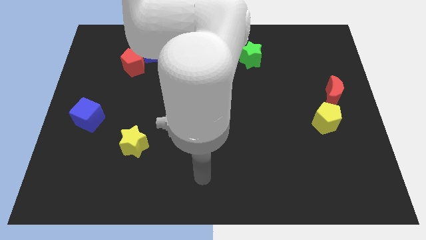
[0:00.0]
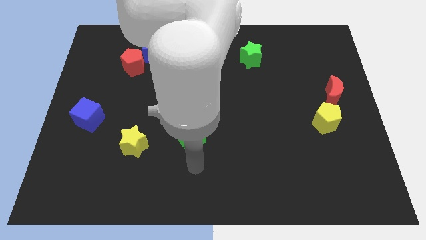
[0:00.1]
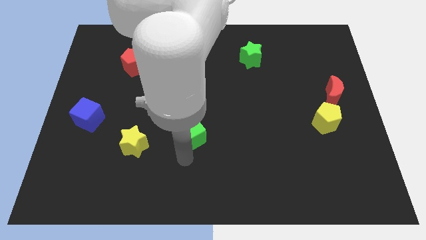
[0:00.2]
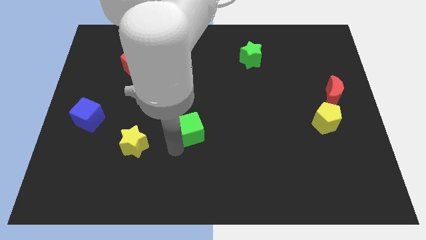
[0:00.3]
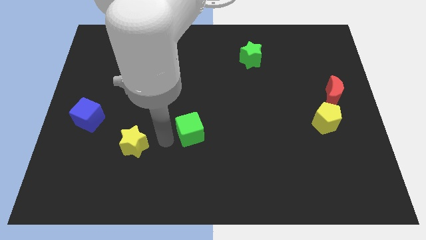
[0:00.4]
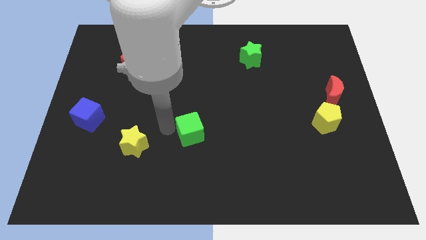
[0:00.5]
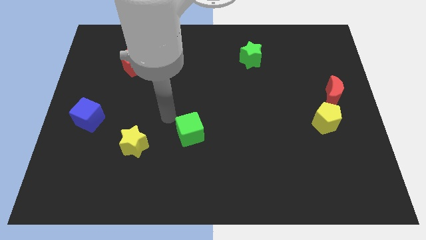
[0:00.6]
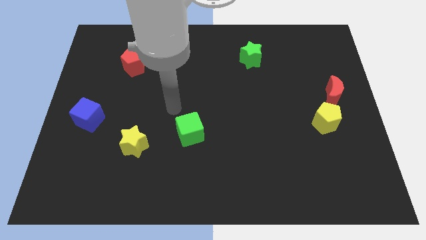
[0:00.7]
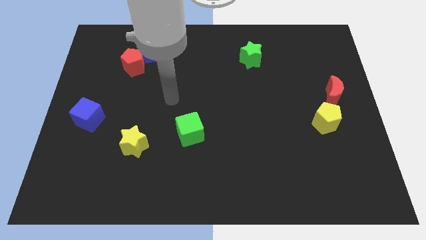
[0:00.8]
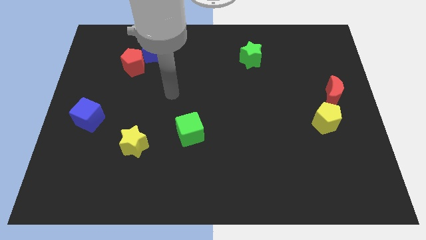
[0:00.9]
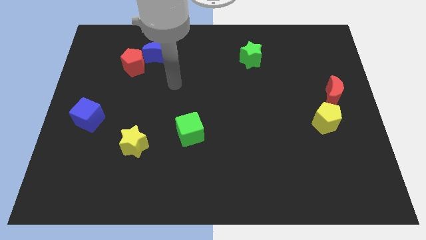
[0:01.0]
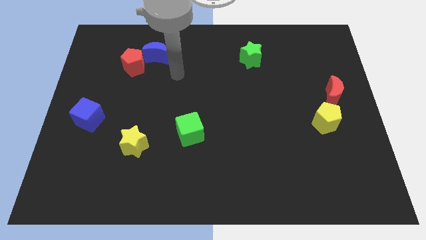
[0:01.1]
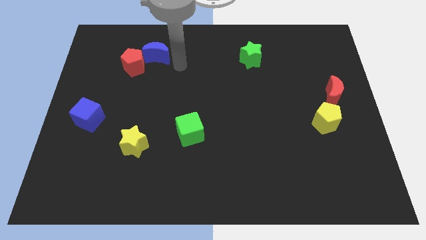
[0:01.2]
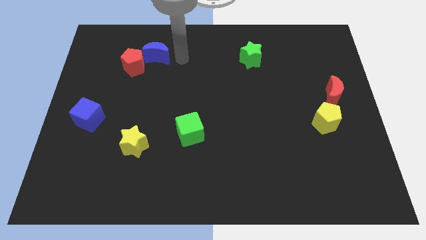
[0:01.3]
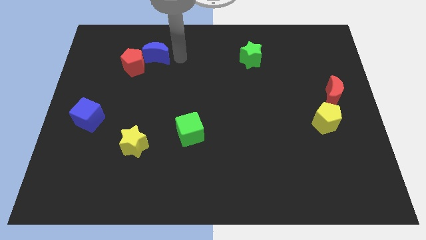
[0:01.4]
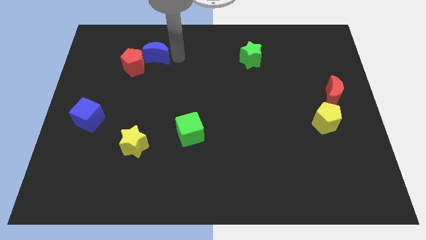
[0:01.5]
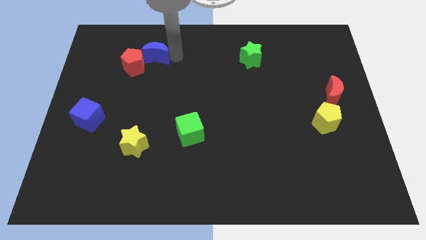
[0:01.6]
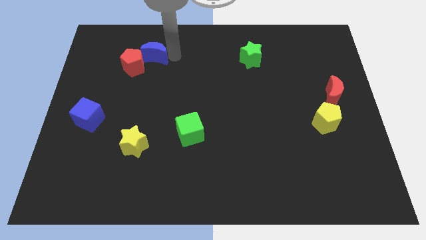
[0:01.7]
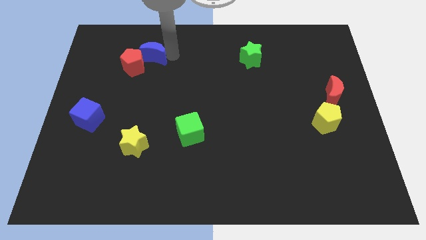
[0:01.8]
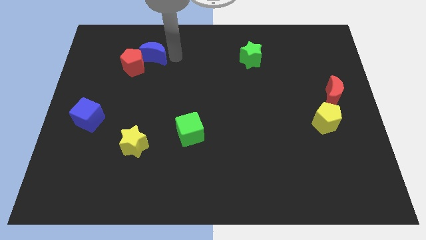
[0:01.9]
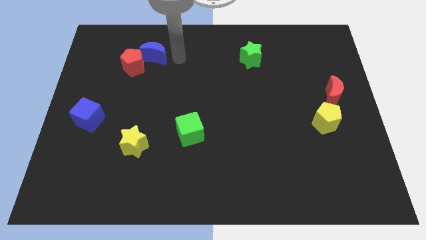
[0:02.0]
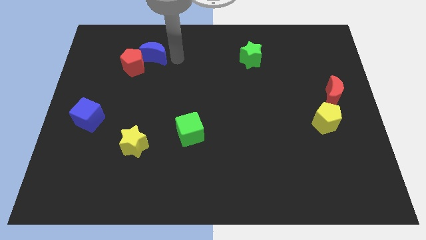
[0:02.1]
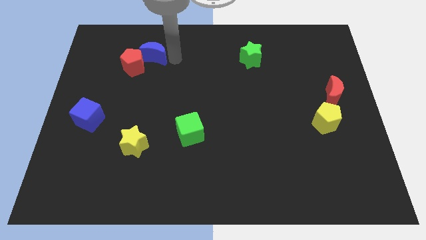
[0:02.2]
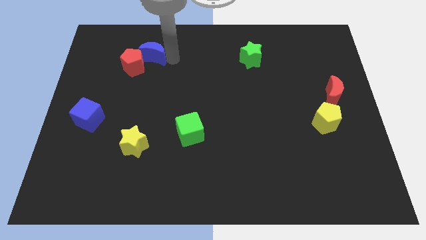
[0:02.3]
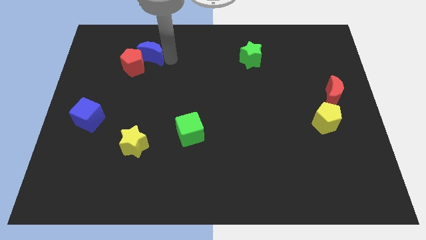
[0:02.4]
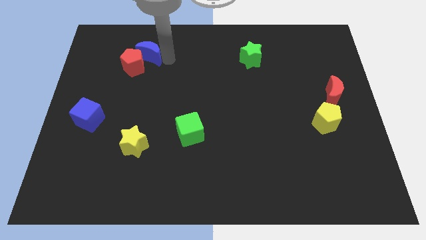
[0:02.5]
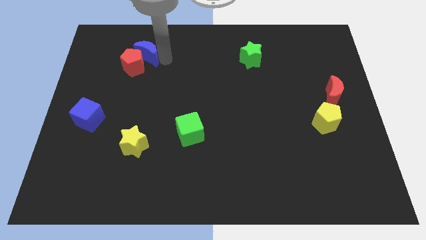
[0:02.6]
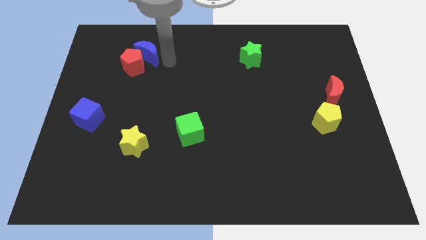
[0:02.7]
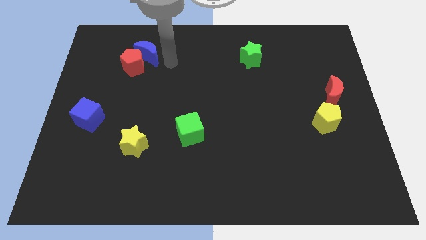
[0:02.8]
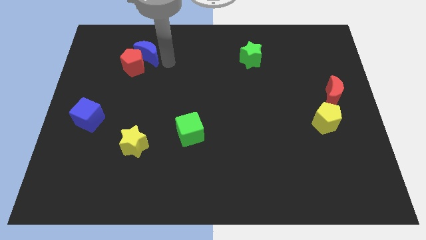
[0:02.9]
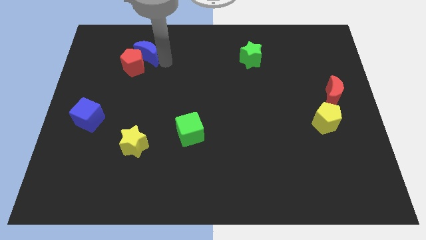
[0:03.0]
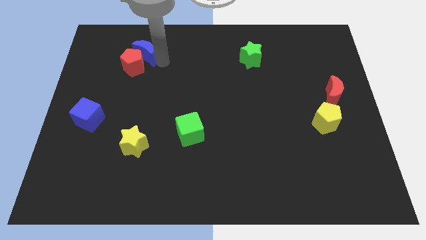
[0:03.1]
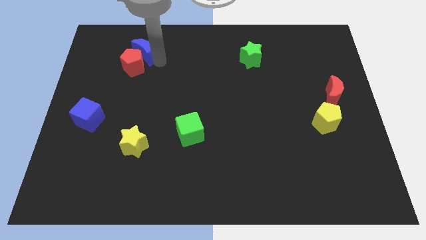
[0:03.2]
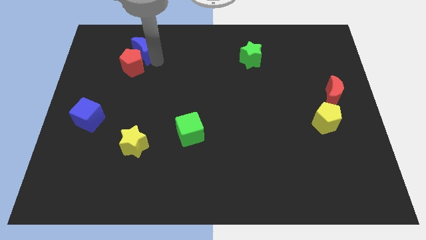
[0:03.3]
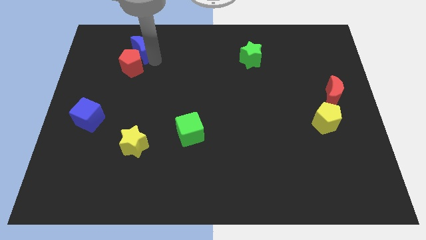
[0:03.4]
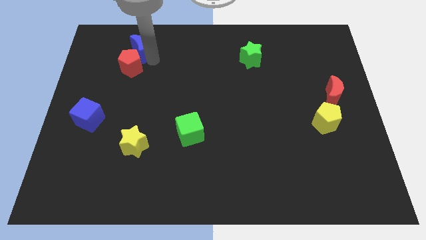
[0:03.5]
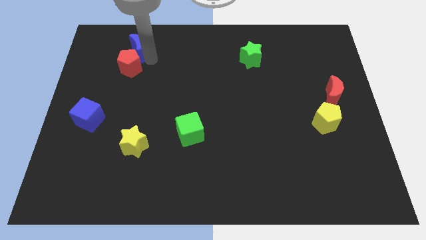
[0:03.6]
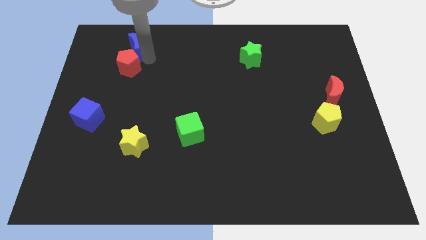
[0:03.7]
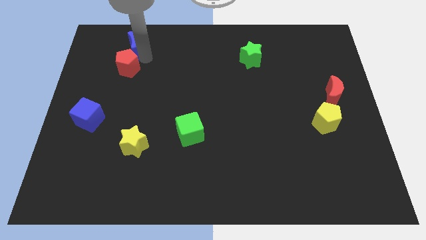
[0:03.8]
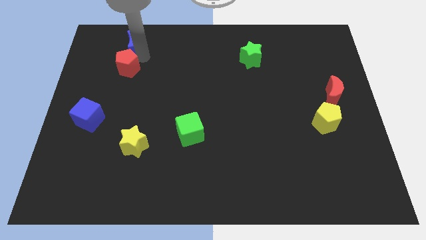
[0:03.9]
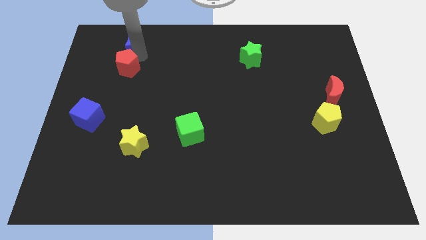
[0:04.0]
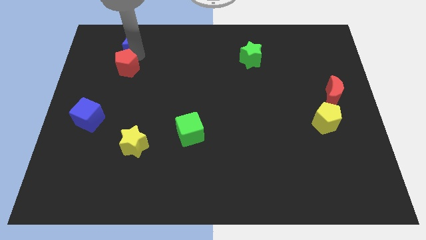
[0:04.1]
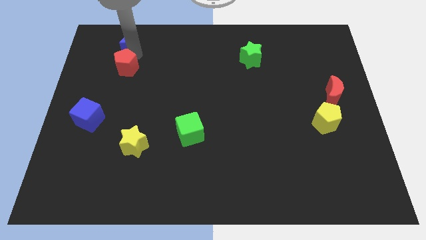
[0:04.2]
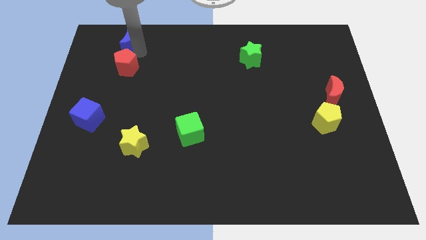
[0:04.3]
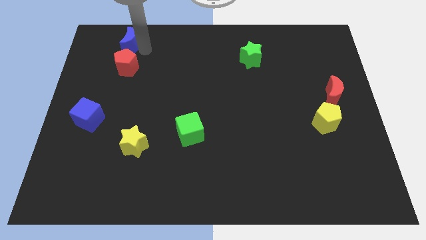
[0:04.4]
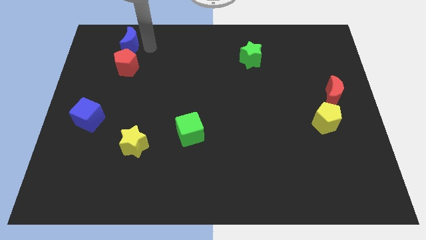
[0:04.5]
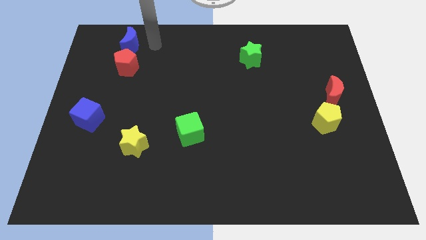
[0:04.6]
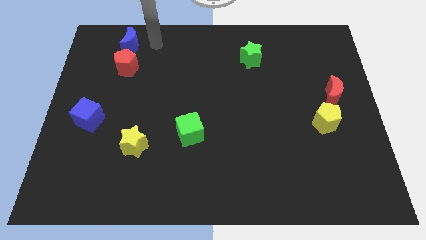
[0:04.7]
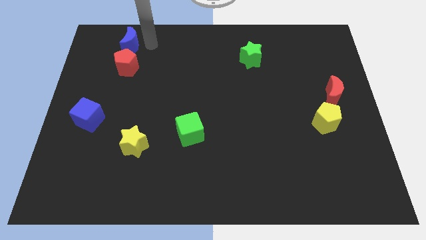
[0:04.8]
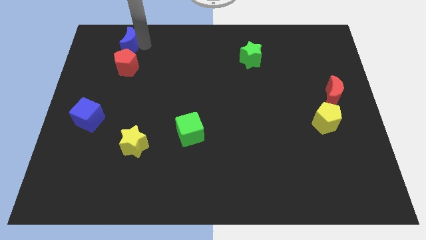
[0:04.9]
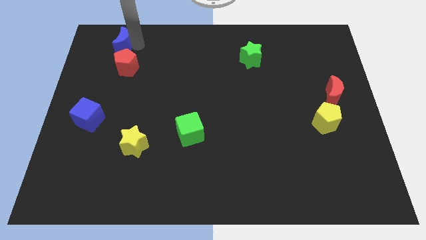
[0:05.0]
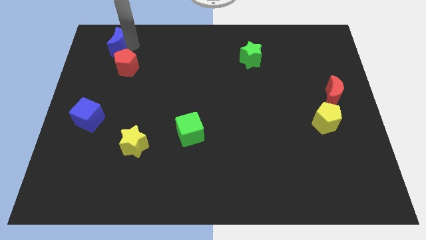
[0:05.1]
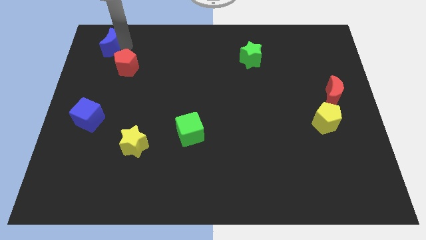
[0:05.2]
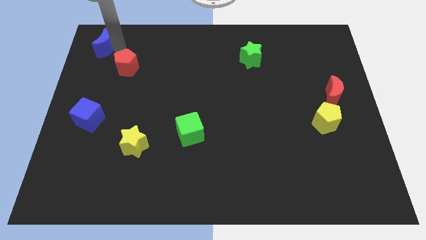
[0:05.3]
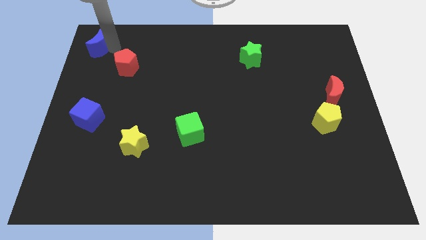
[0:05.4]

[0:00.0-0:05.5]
move the blue moon to the top left corner

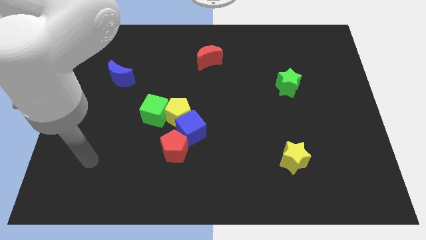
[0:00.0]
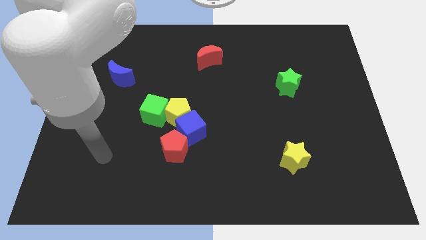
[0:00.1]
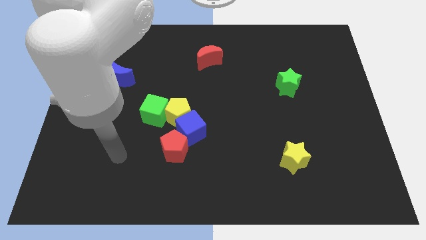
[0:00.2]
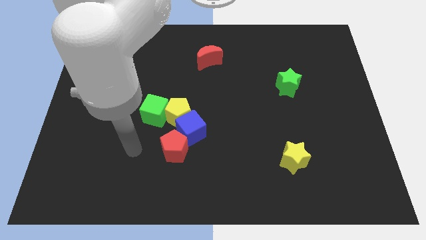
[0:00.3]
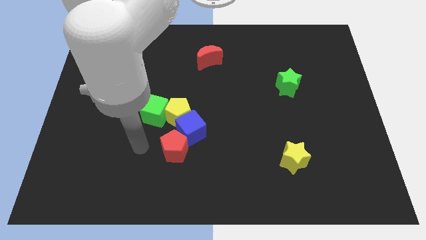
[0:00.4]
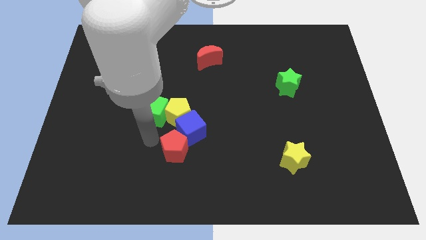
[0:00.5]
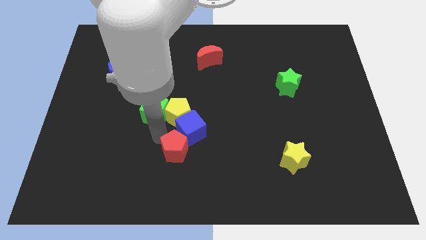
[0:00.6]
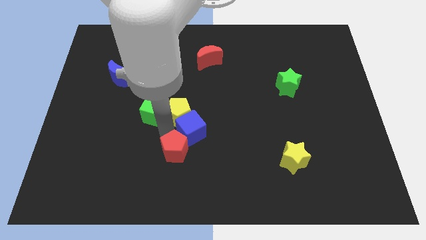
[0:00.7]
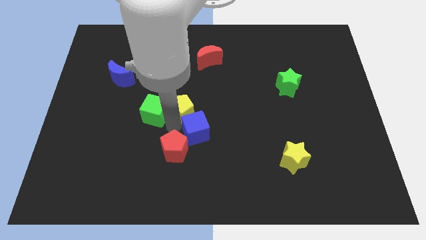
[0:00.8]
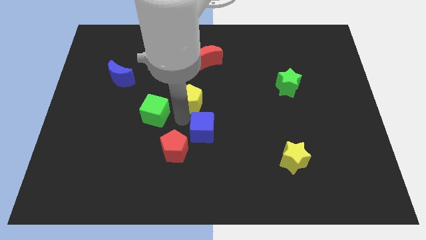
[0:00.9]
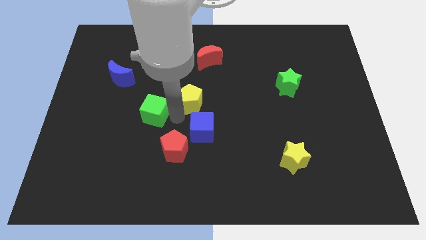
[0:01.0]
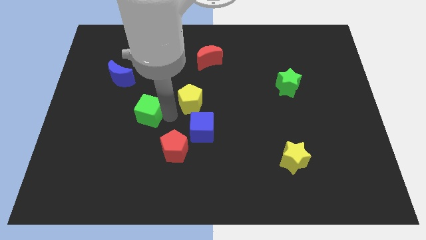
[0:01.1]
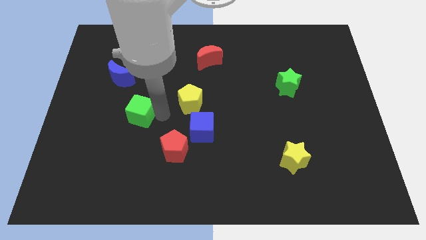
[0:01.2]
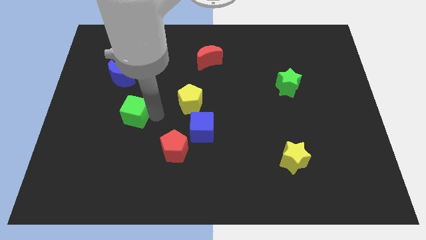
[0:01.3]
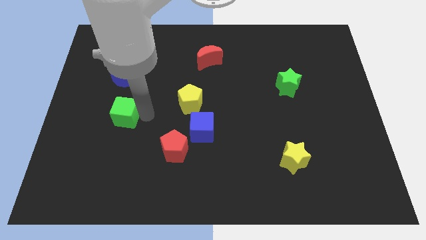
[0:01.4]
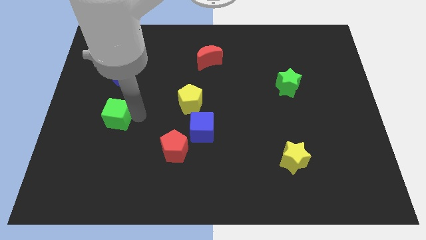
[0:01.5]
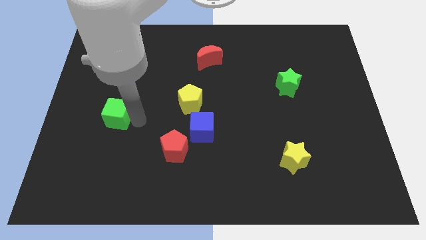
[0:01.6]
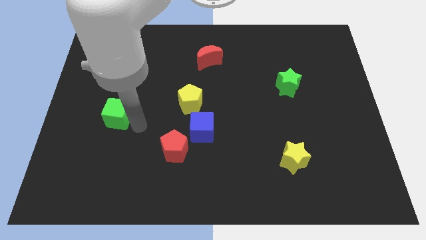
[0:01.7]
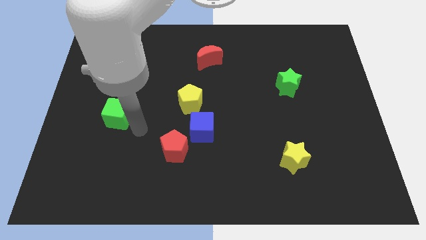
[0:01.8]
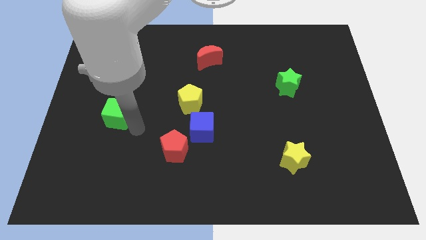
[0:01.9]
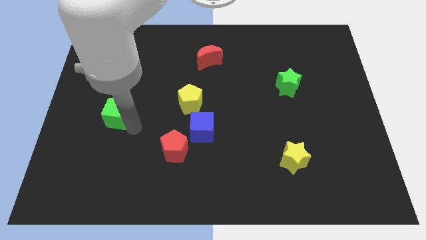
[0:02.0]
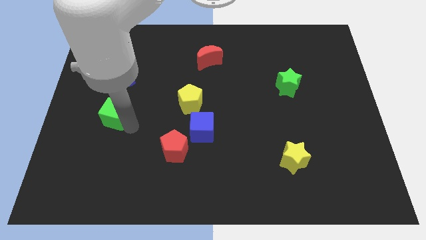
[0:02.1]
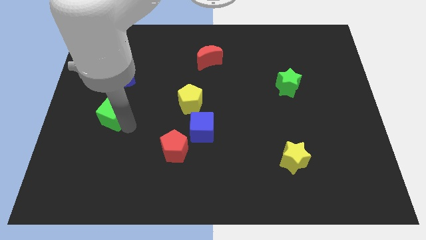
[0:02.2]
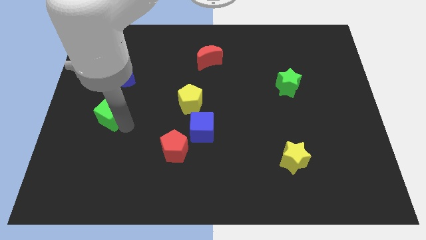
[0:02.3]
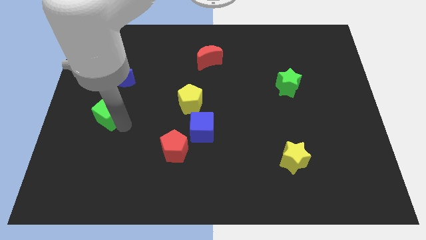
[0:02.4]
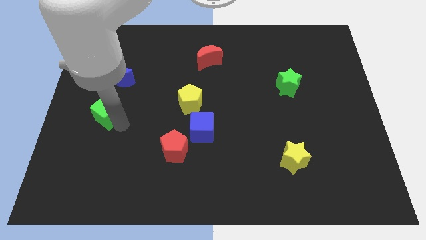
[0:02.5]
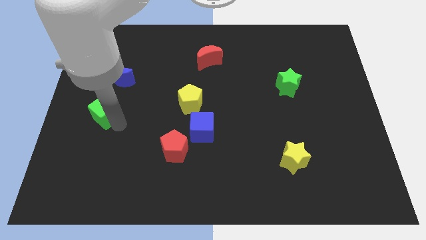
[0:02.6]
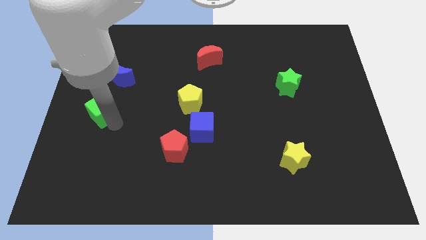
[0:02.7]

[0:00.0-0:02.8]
push the green cube to the left side
